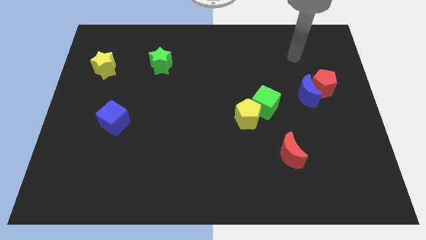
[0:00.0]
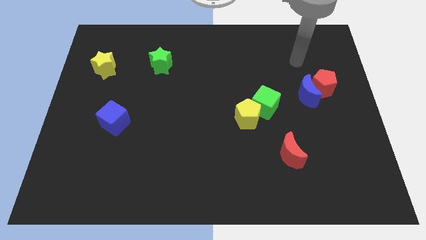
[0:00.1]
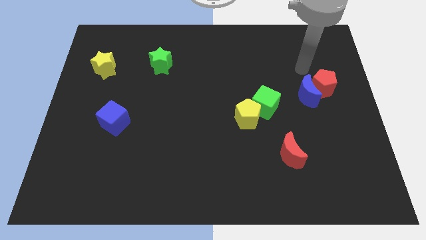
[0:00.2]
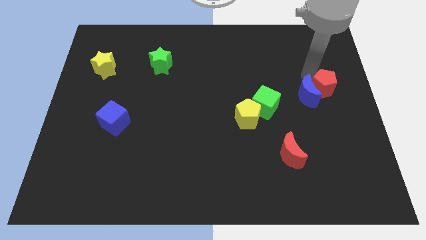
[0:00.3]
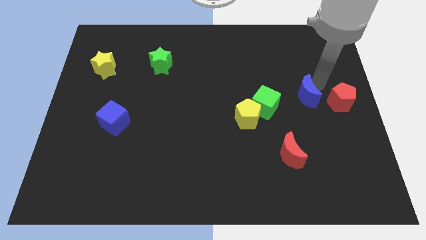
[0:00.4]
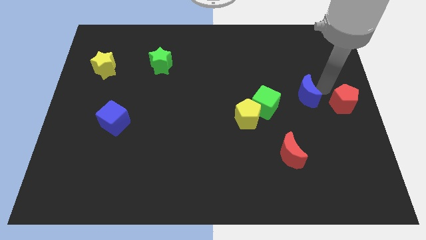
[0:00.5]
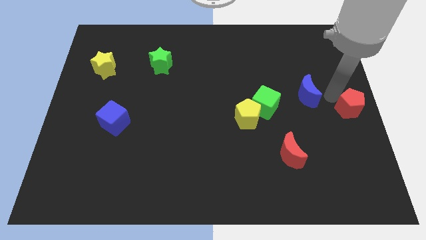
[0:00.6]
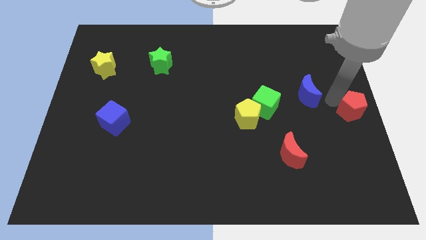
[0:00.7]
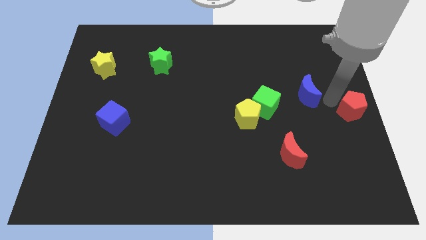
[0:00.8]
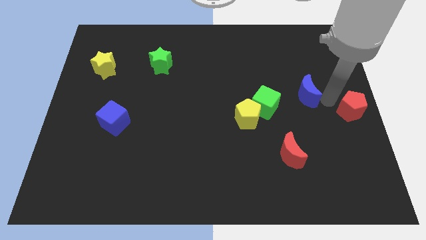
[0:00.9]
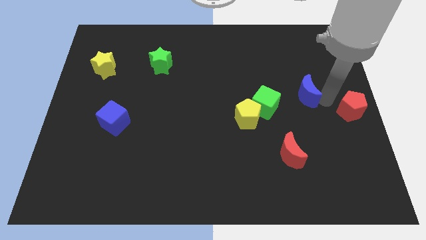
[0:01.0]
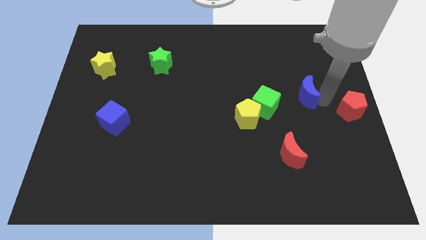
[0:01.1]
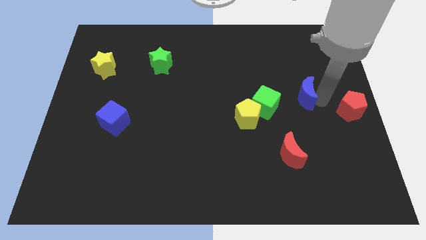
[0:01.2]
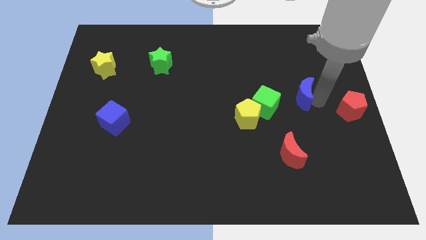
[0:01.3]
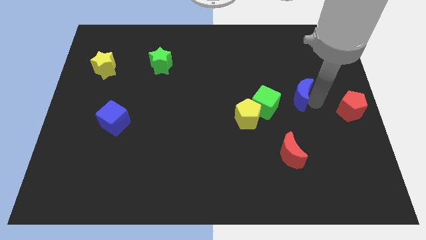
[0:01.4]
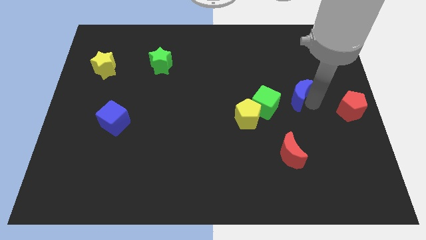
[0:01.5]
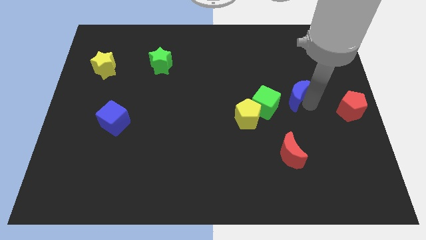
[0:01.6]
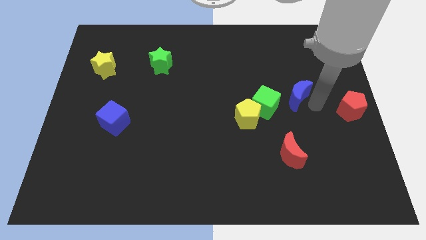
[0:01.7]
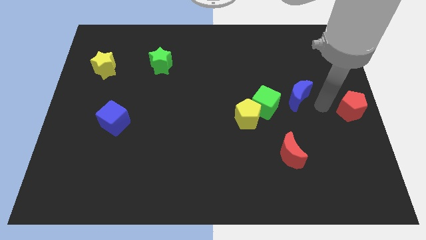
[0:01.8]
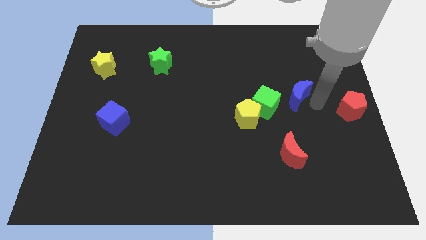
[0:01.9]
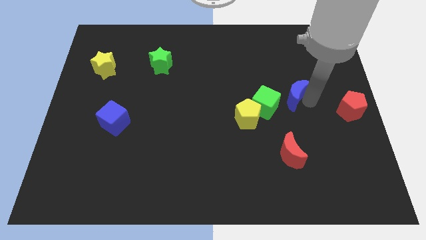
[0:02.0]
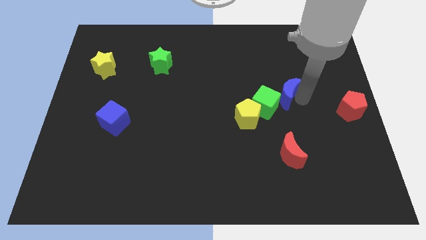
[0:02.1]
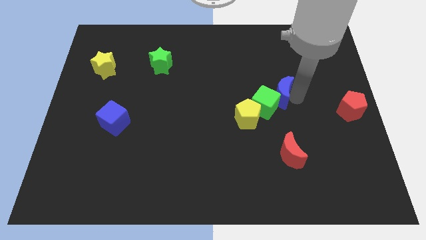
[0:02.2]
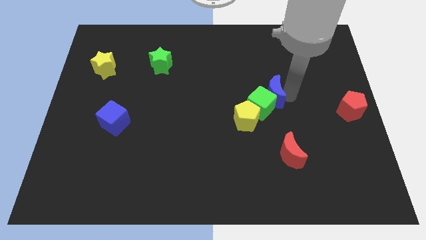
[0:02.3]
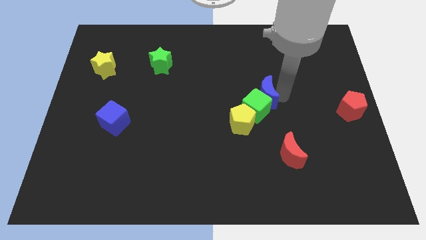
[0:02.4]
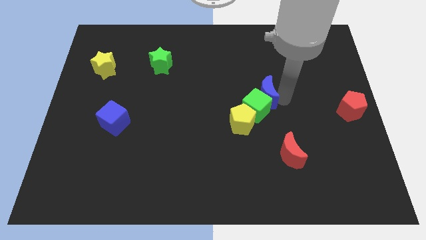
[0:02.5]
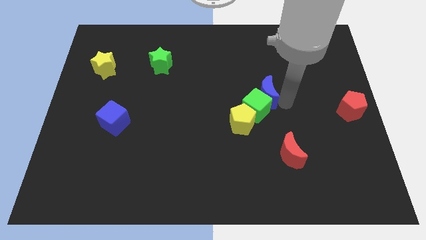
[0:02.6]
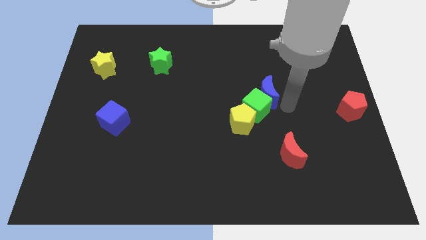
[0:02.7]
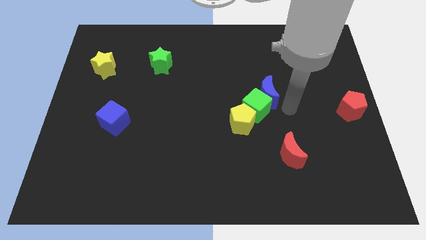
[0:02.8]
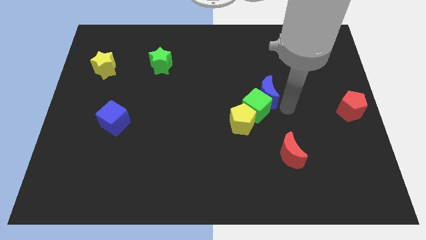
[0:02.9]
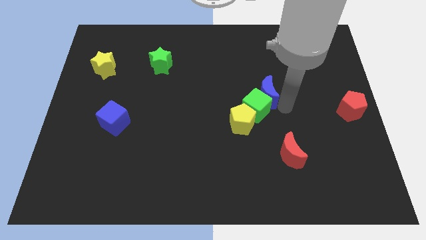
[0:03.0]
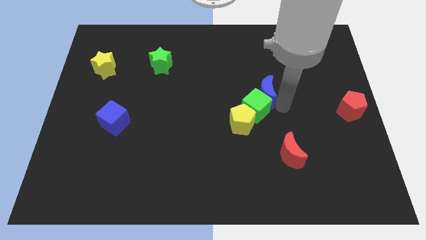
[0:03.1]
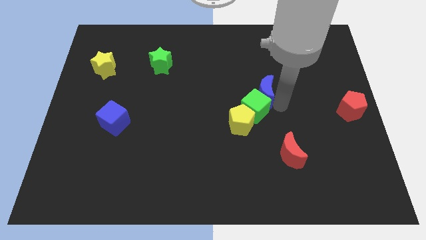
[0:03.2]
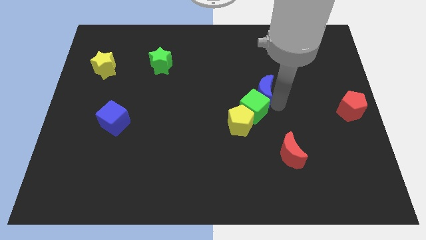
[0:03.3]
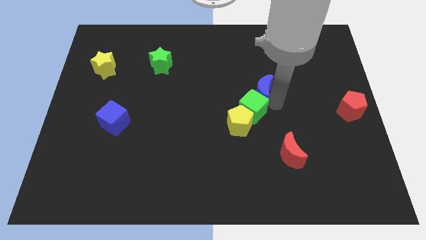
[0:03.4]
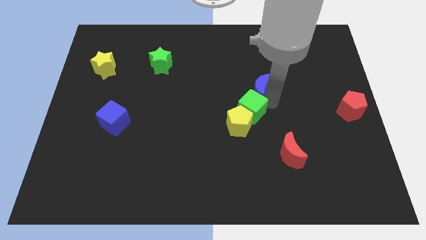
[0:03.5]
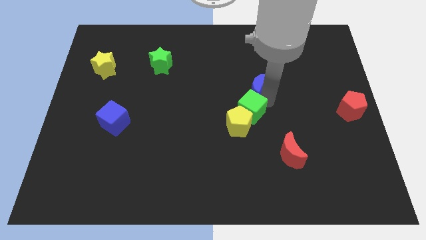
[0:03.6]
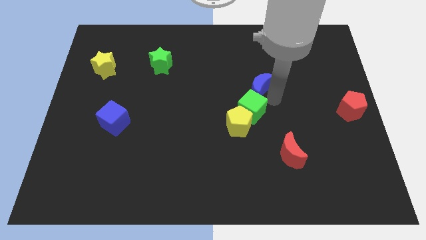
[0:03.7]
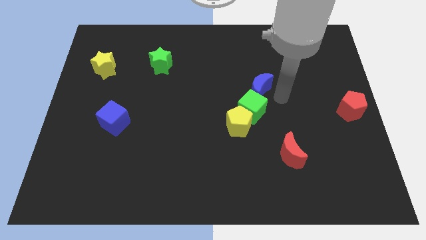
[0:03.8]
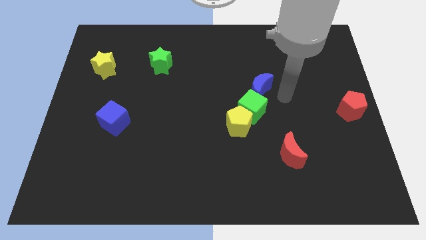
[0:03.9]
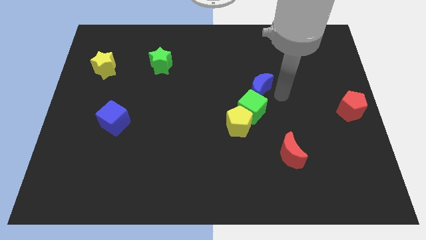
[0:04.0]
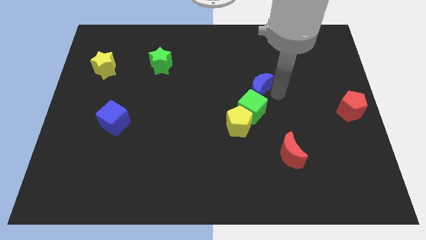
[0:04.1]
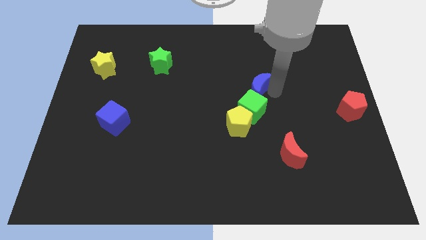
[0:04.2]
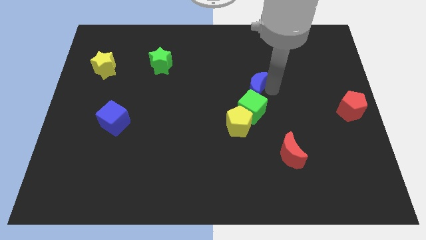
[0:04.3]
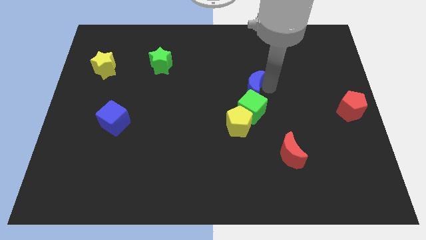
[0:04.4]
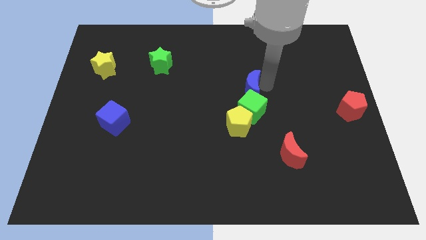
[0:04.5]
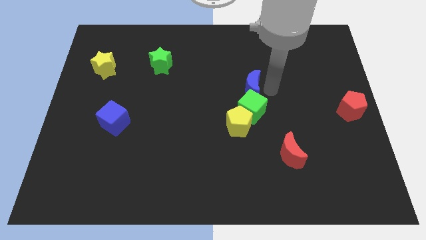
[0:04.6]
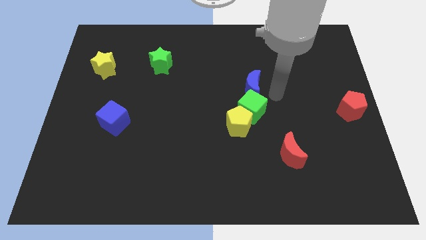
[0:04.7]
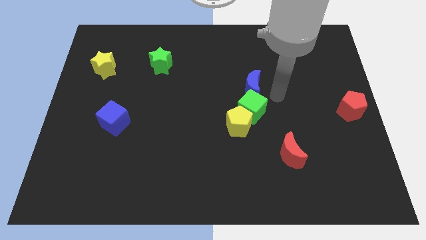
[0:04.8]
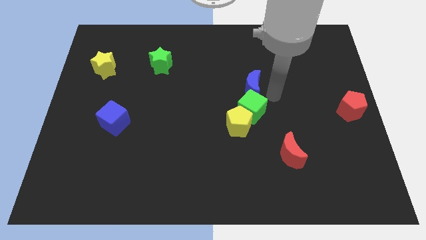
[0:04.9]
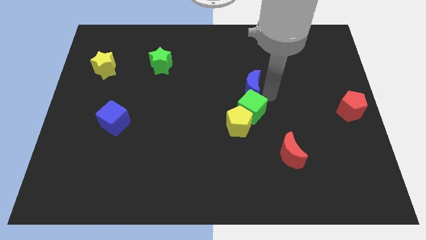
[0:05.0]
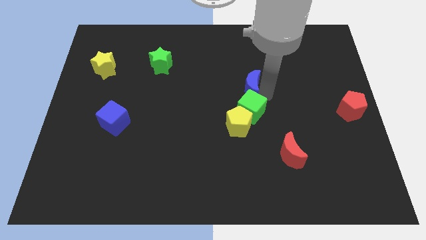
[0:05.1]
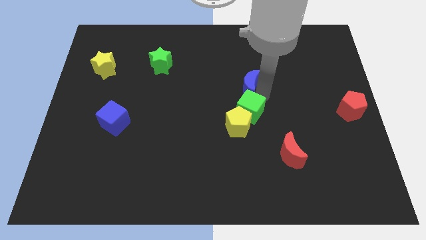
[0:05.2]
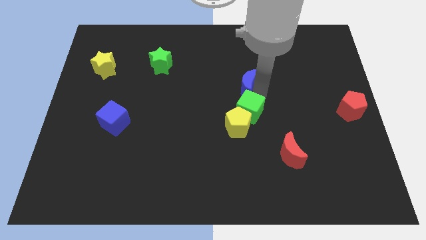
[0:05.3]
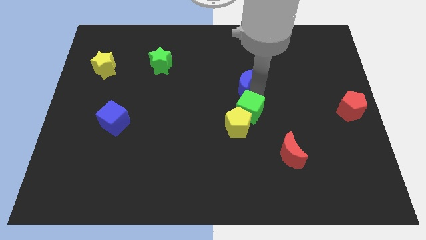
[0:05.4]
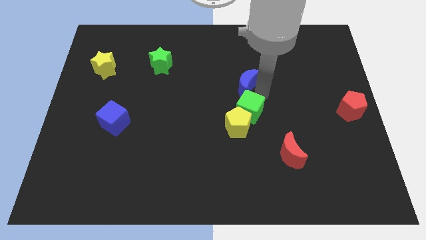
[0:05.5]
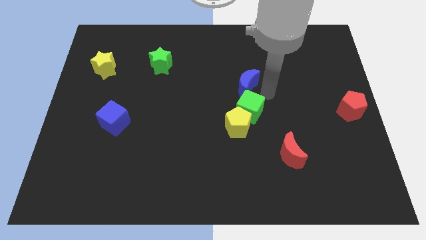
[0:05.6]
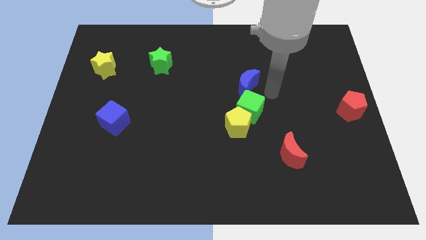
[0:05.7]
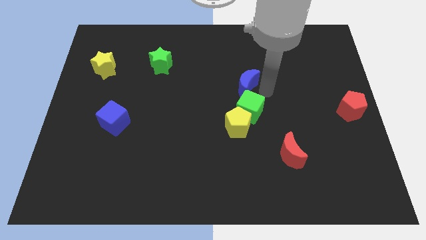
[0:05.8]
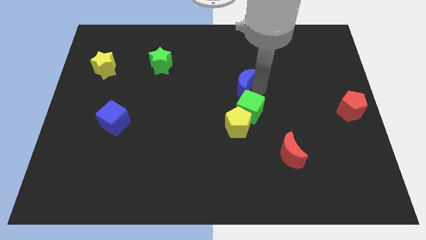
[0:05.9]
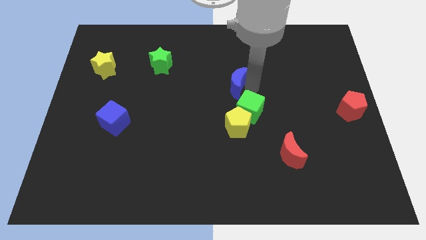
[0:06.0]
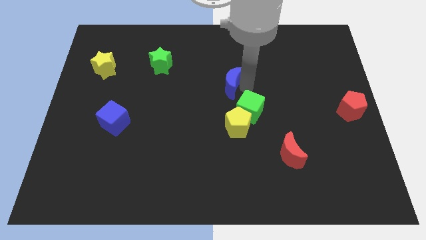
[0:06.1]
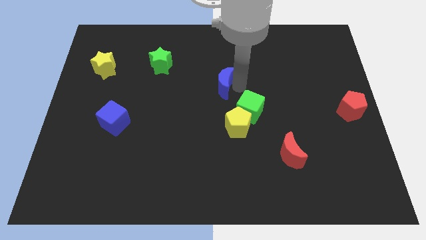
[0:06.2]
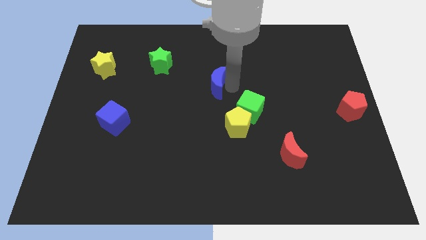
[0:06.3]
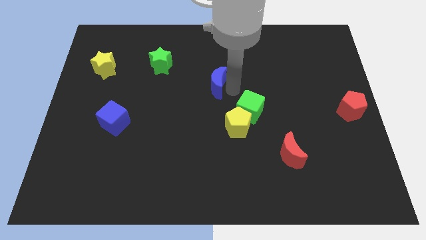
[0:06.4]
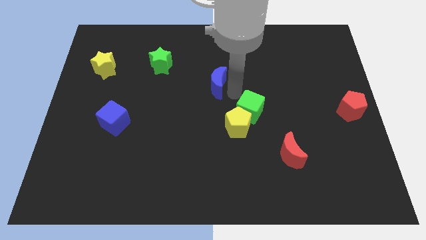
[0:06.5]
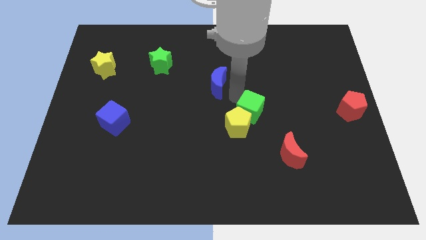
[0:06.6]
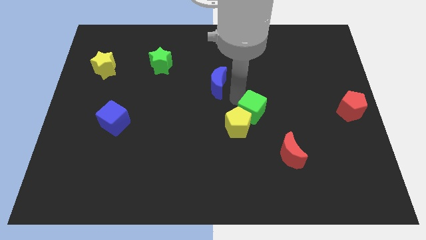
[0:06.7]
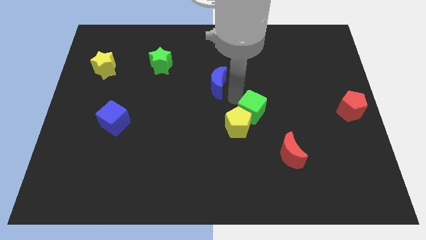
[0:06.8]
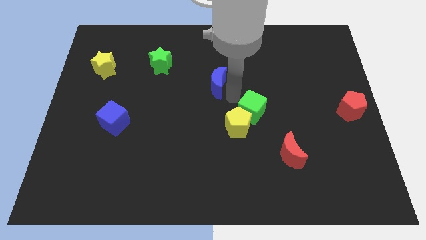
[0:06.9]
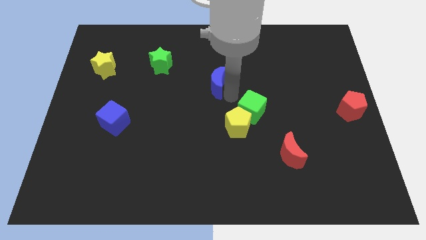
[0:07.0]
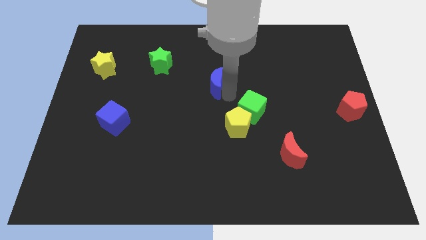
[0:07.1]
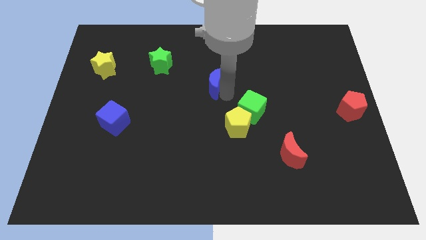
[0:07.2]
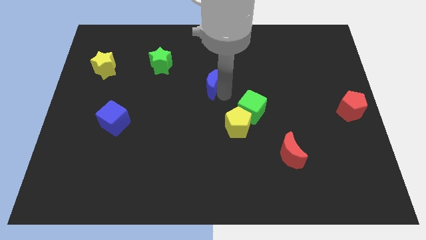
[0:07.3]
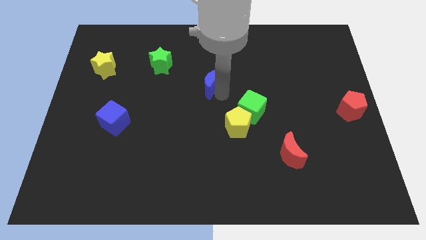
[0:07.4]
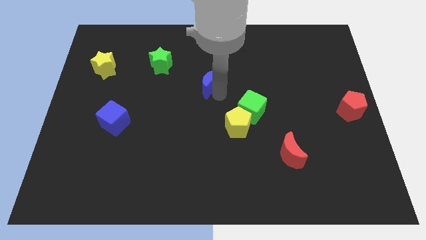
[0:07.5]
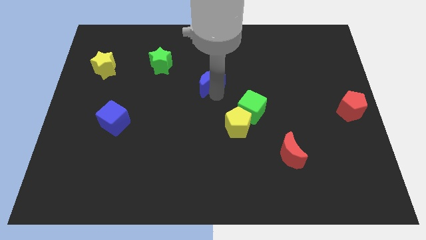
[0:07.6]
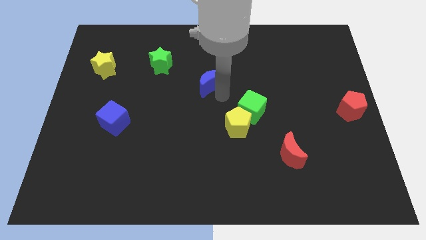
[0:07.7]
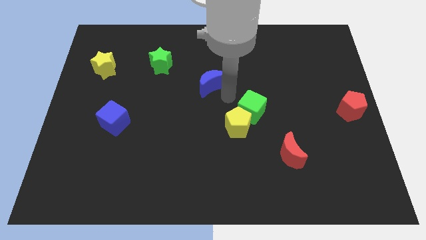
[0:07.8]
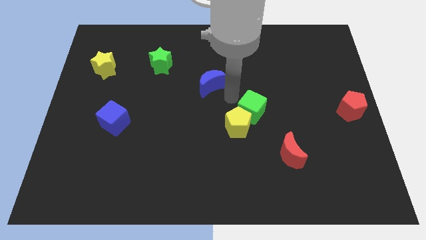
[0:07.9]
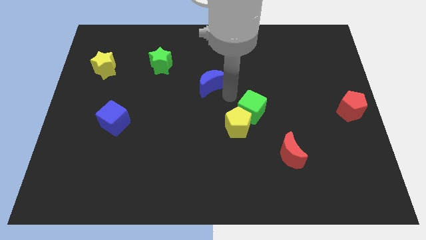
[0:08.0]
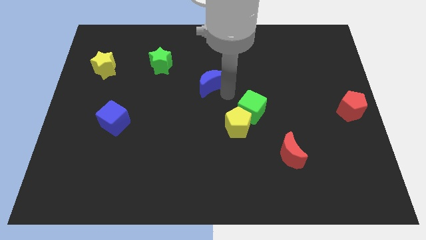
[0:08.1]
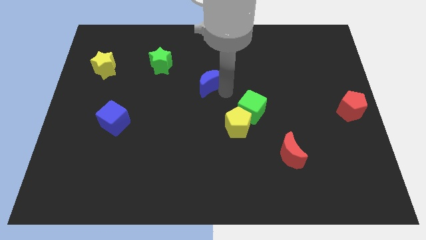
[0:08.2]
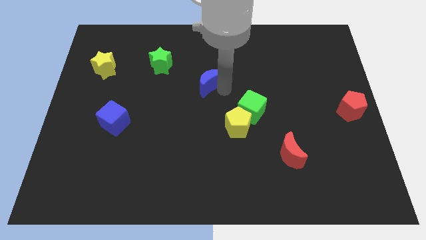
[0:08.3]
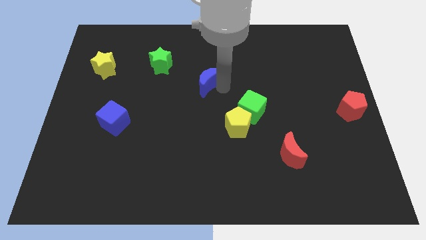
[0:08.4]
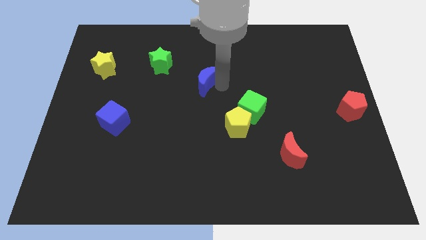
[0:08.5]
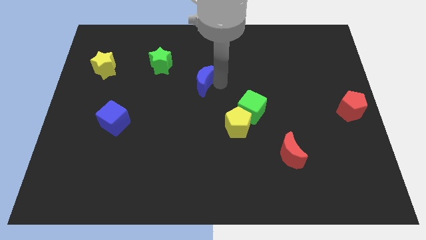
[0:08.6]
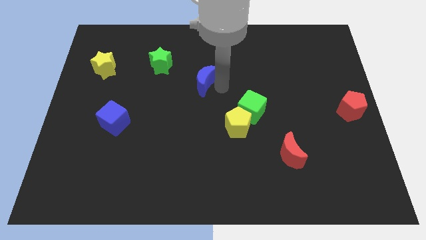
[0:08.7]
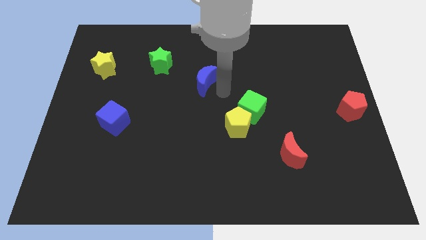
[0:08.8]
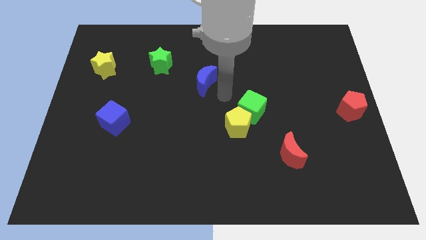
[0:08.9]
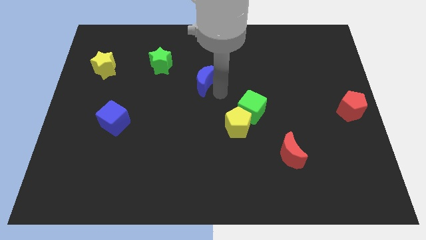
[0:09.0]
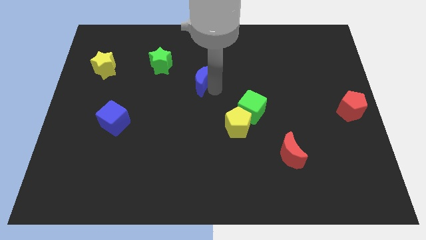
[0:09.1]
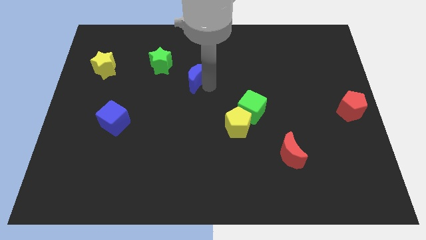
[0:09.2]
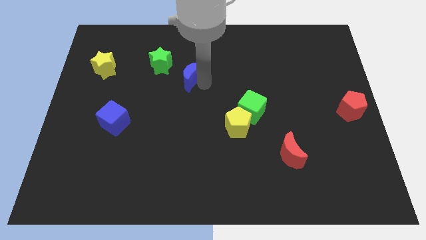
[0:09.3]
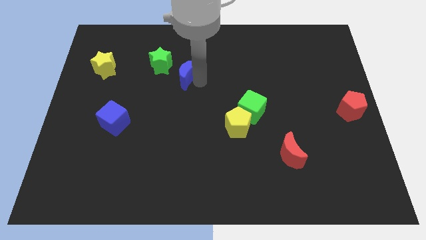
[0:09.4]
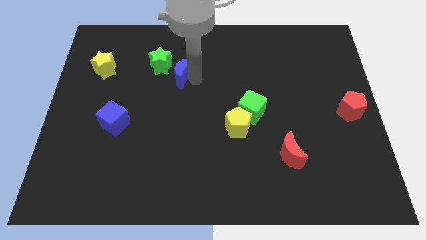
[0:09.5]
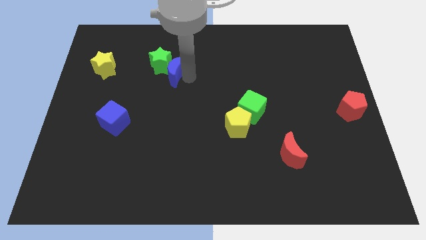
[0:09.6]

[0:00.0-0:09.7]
put the blue moon towards the green star
